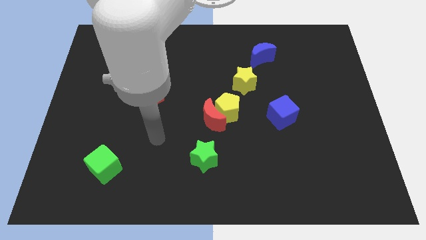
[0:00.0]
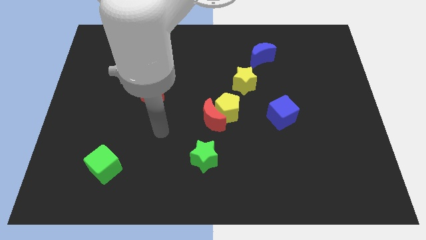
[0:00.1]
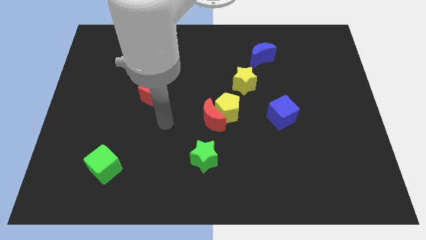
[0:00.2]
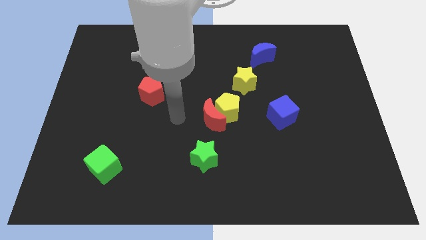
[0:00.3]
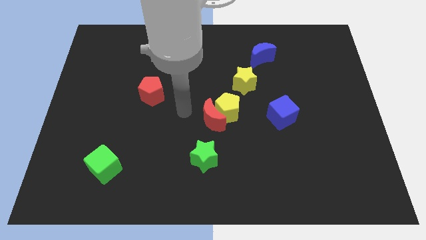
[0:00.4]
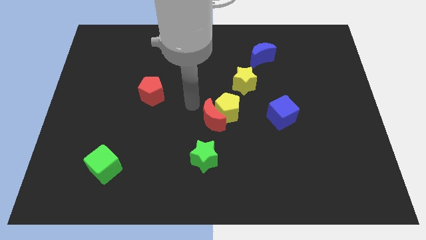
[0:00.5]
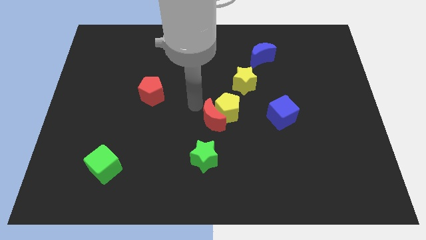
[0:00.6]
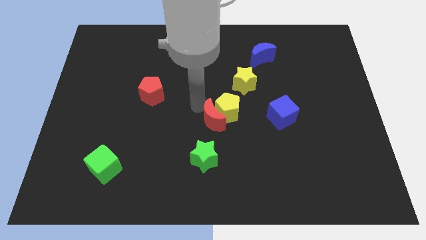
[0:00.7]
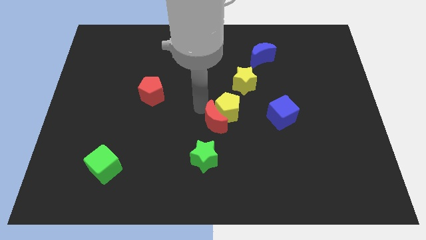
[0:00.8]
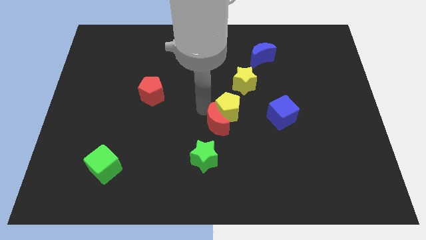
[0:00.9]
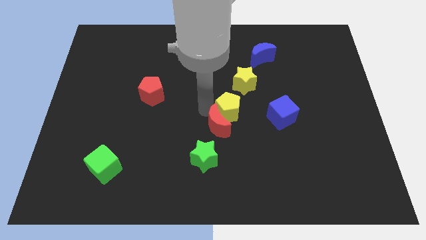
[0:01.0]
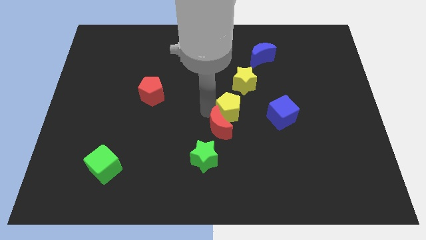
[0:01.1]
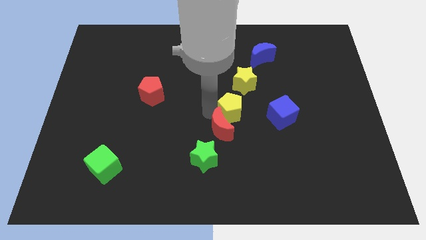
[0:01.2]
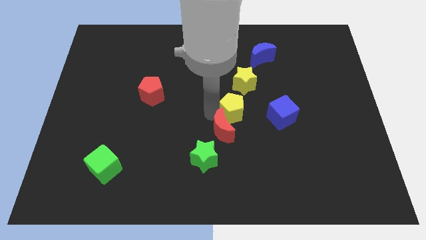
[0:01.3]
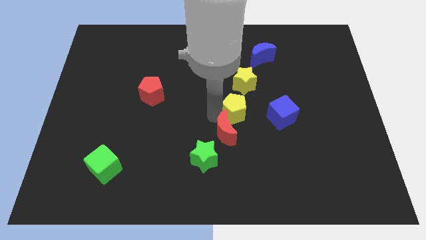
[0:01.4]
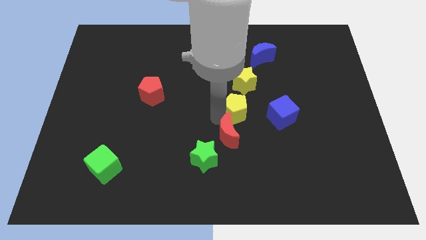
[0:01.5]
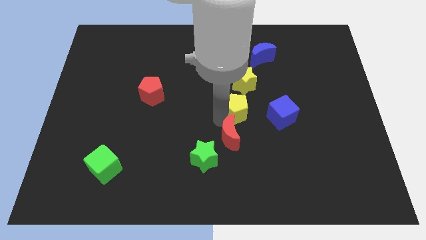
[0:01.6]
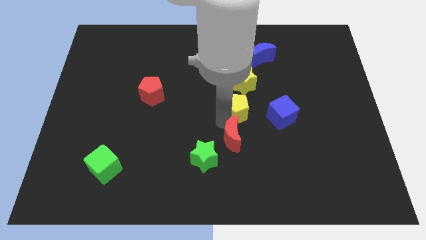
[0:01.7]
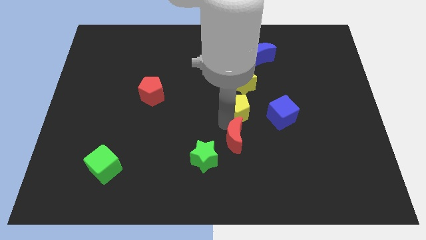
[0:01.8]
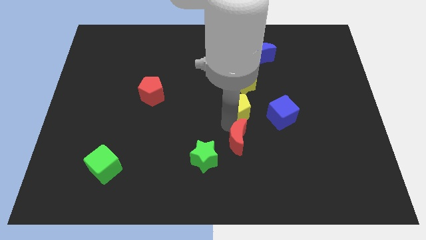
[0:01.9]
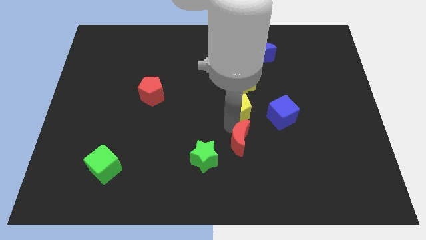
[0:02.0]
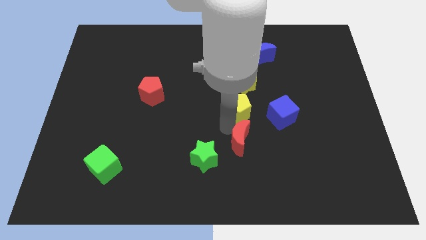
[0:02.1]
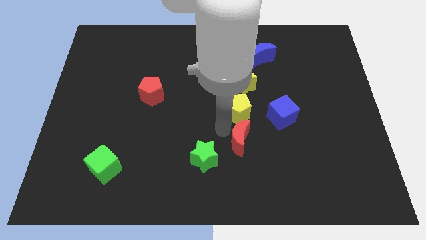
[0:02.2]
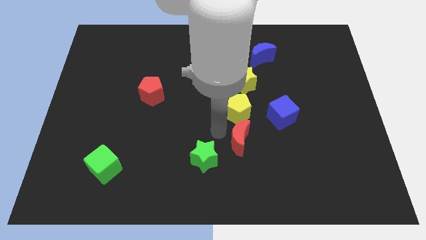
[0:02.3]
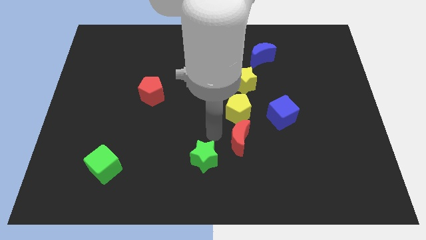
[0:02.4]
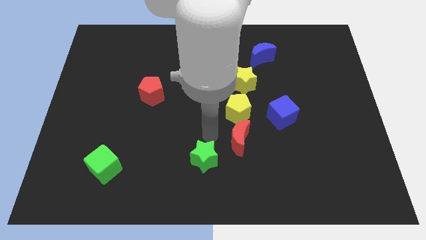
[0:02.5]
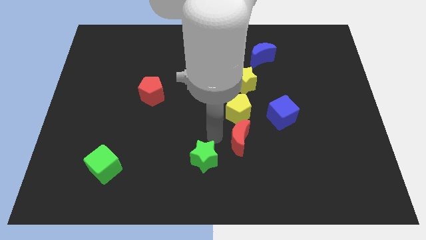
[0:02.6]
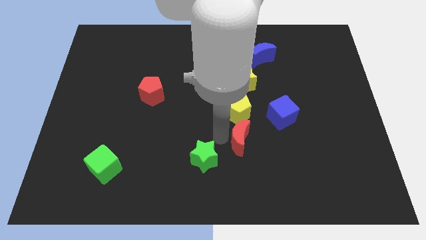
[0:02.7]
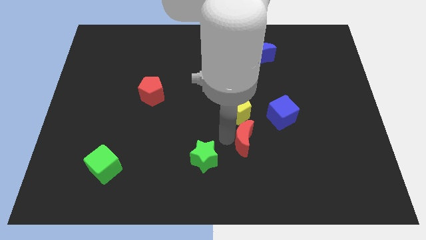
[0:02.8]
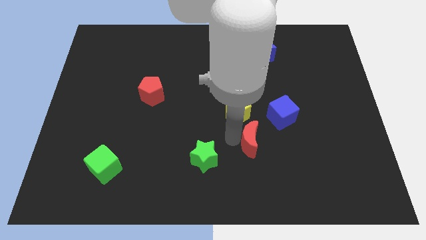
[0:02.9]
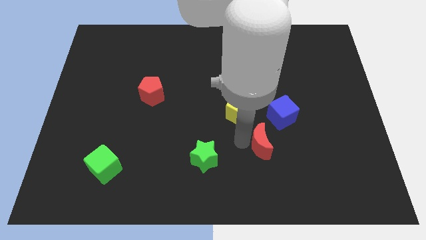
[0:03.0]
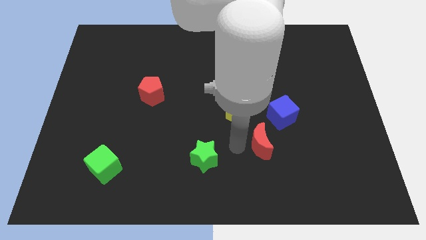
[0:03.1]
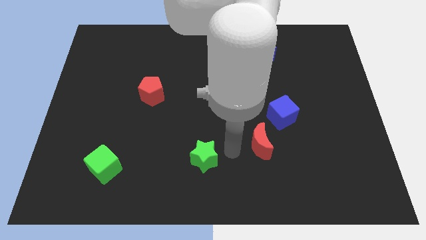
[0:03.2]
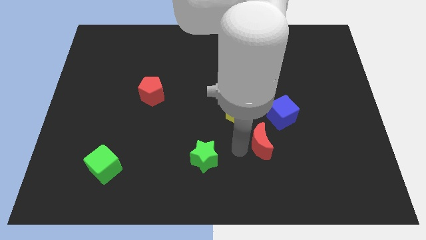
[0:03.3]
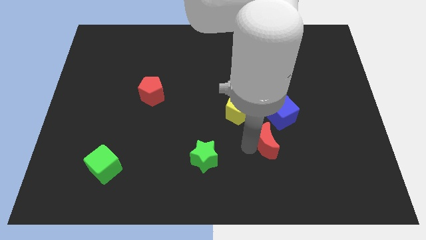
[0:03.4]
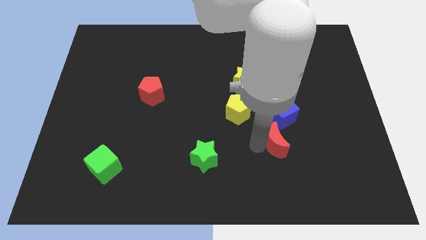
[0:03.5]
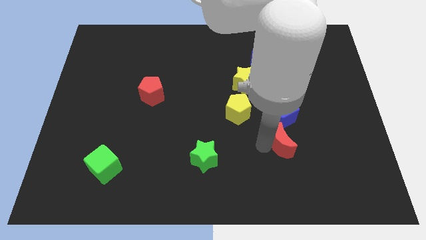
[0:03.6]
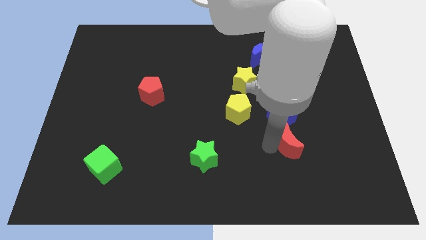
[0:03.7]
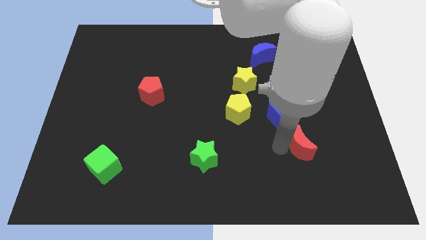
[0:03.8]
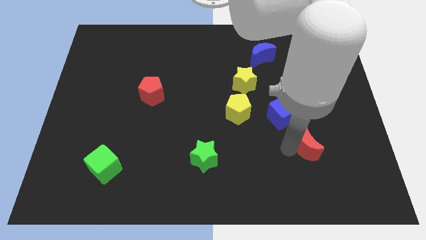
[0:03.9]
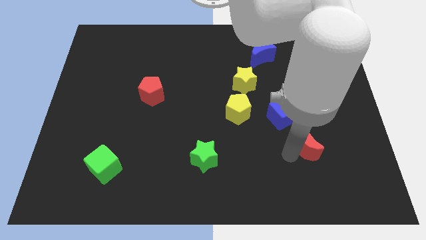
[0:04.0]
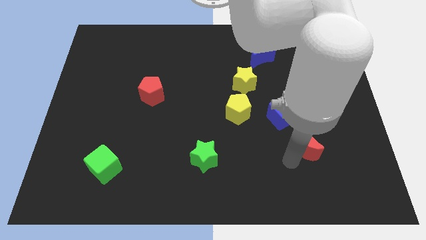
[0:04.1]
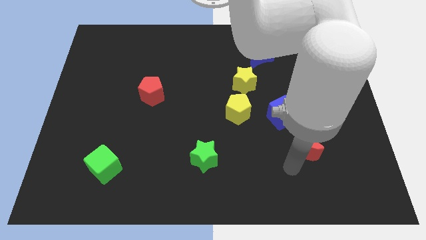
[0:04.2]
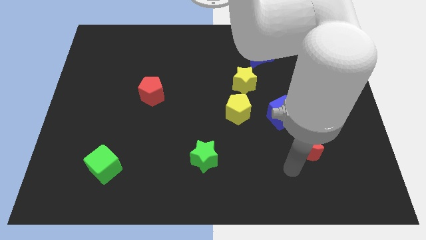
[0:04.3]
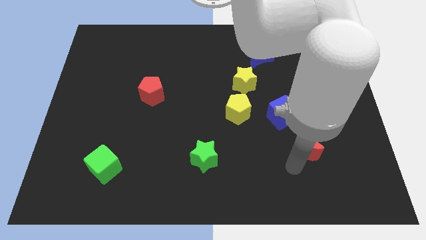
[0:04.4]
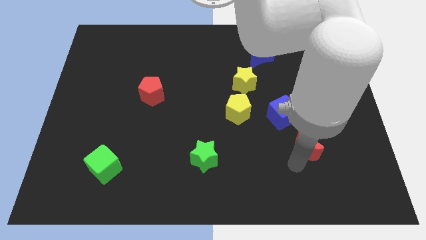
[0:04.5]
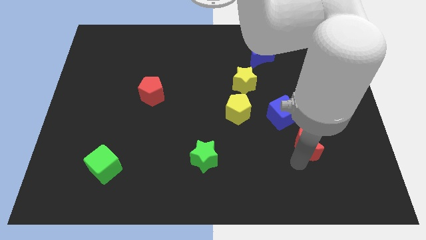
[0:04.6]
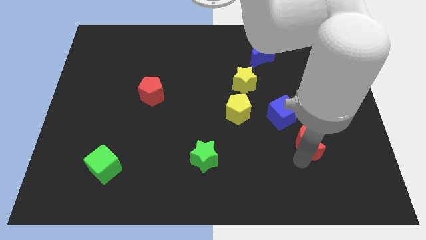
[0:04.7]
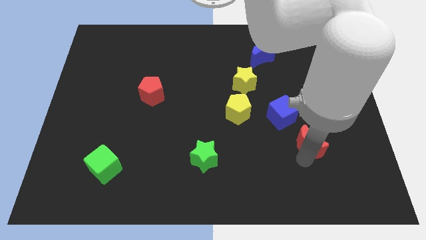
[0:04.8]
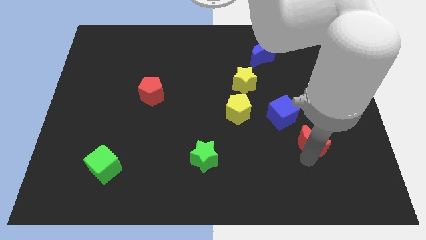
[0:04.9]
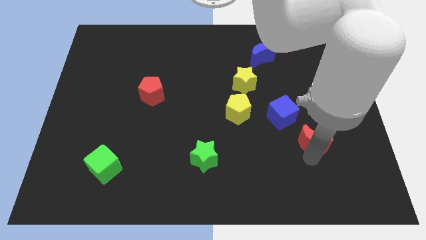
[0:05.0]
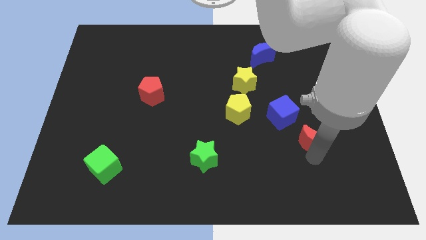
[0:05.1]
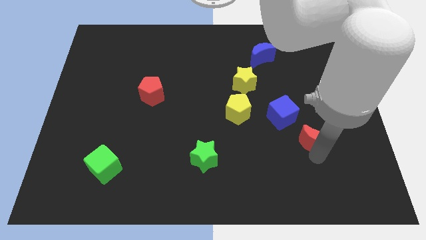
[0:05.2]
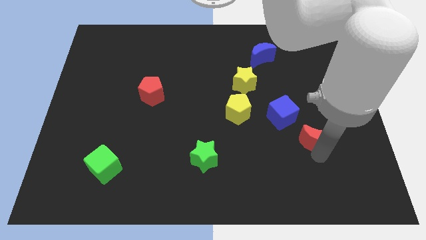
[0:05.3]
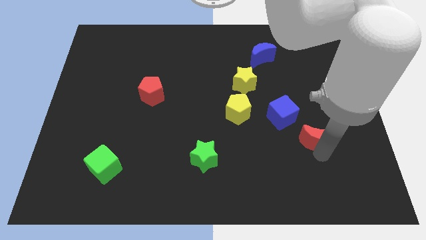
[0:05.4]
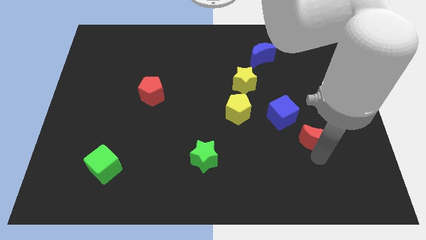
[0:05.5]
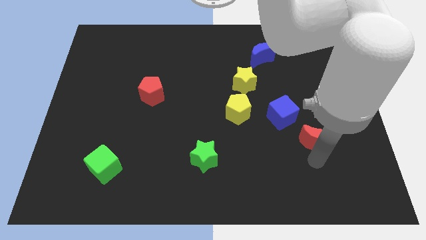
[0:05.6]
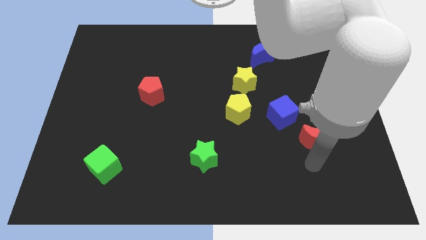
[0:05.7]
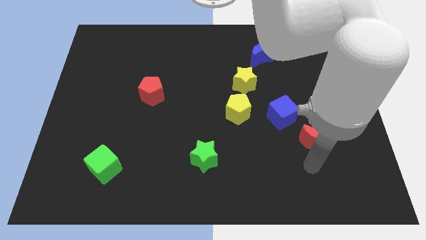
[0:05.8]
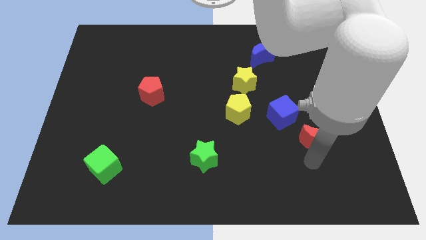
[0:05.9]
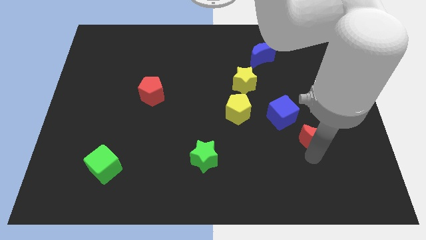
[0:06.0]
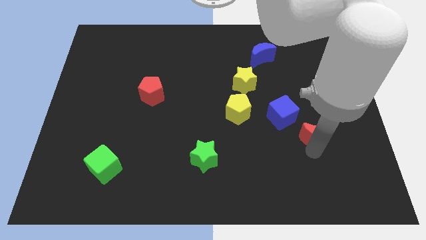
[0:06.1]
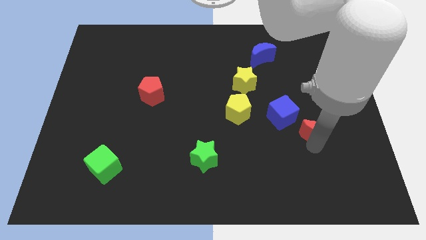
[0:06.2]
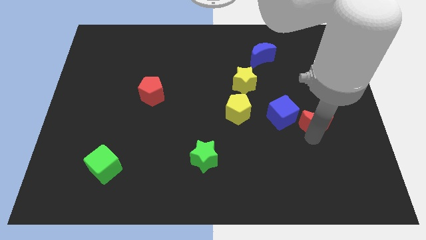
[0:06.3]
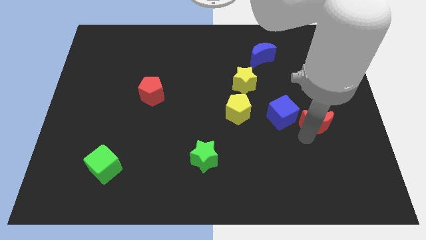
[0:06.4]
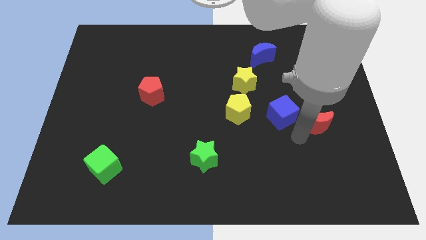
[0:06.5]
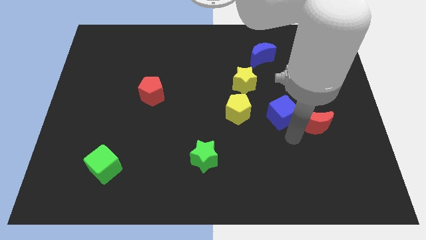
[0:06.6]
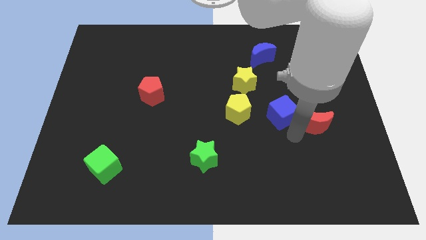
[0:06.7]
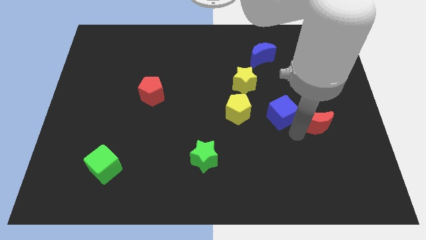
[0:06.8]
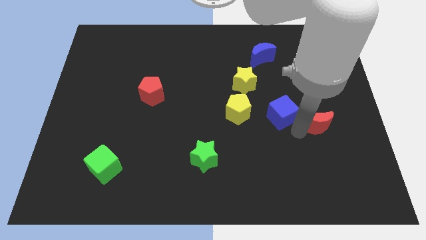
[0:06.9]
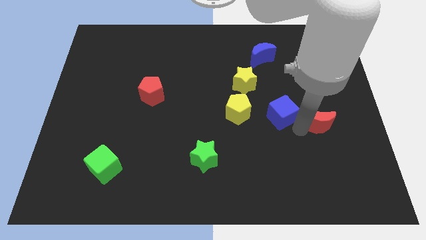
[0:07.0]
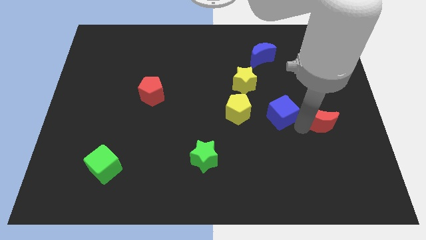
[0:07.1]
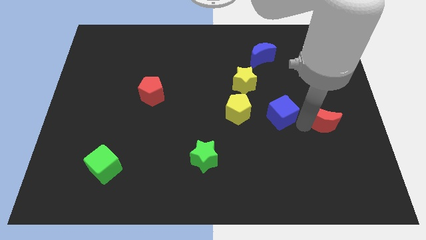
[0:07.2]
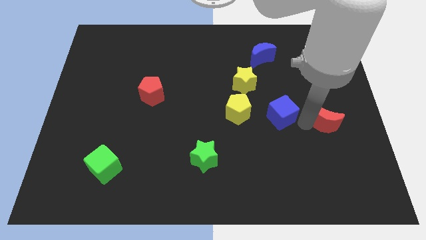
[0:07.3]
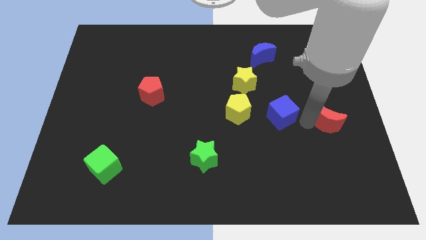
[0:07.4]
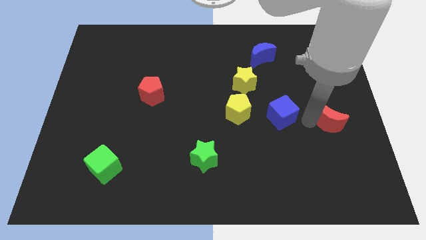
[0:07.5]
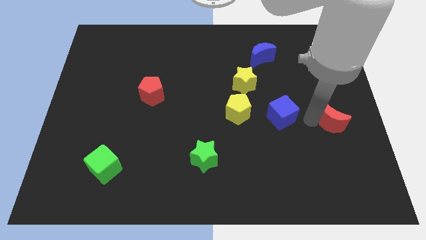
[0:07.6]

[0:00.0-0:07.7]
slide the red moon to the right side
